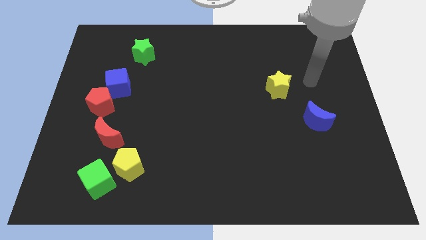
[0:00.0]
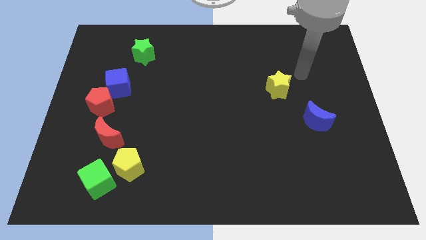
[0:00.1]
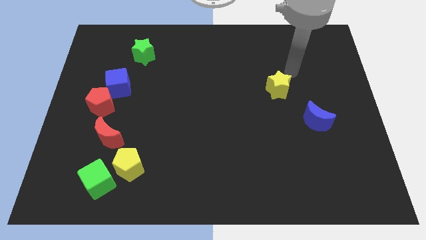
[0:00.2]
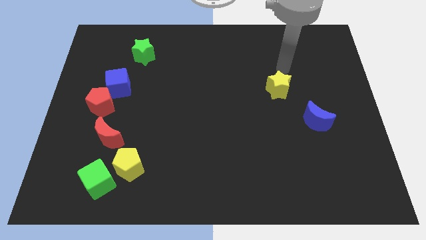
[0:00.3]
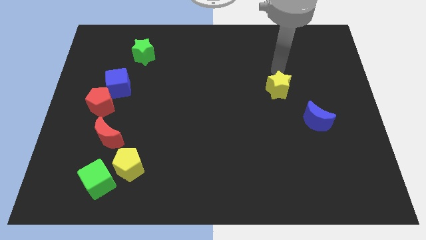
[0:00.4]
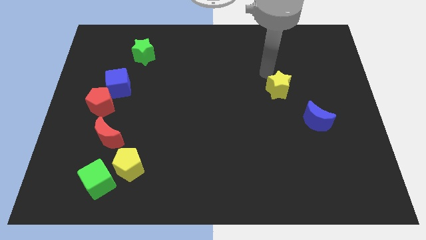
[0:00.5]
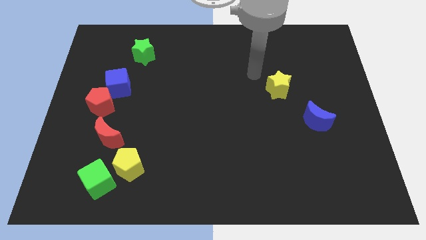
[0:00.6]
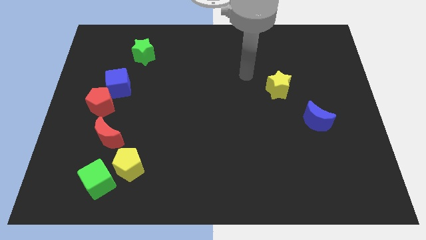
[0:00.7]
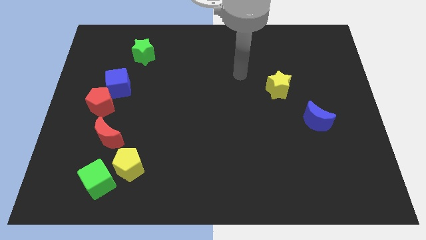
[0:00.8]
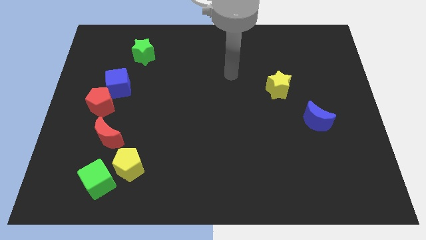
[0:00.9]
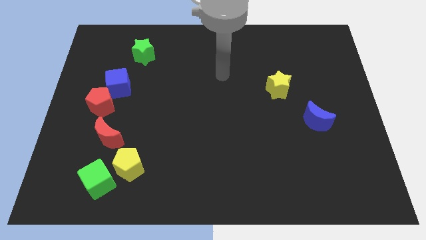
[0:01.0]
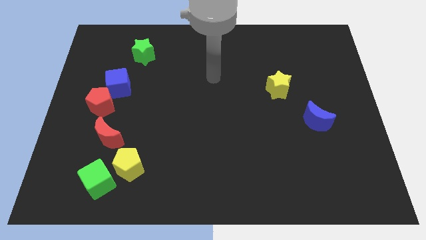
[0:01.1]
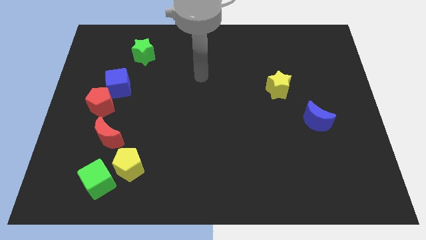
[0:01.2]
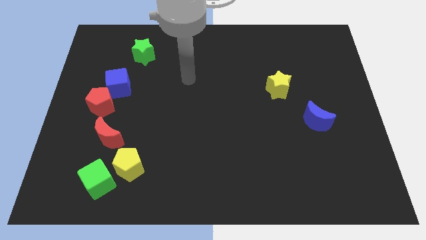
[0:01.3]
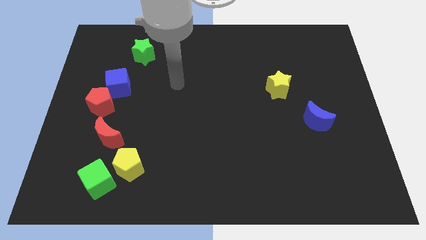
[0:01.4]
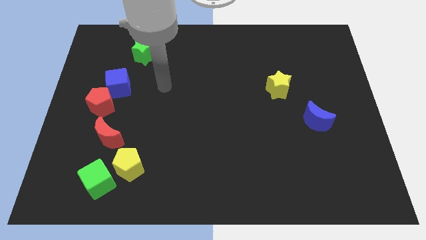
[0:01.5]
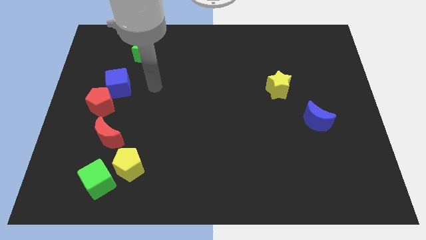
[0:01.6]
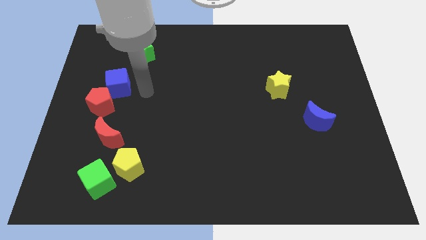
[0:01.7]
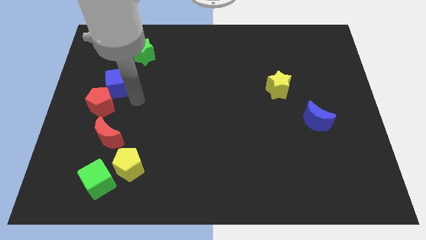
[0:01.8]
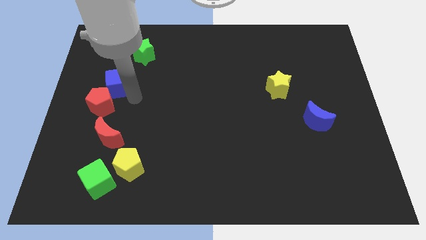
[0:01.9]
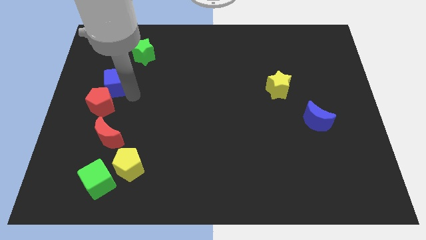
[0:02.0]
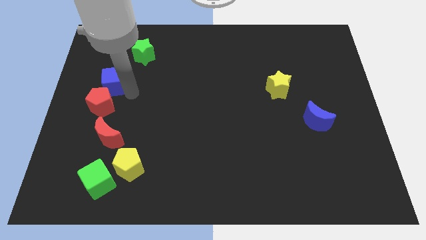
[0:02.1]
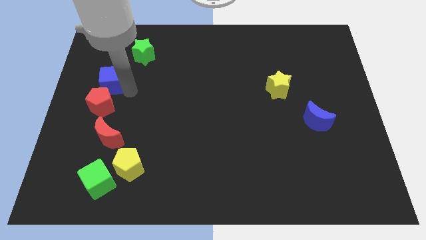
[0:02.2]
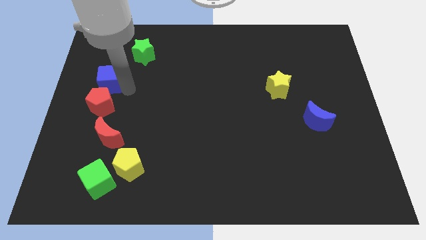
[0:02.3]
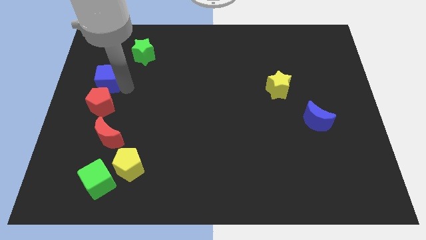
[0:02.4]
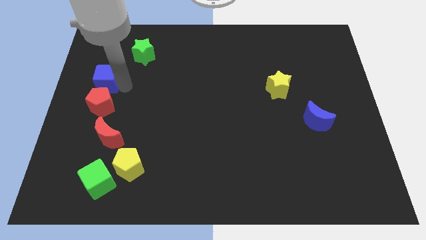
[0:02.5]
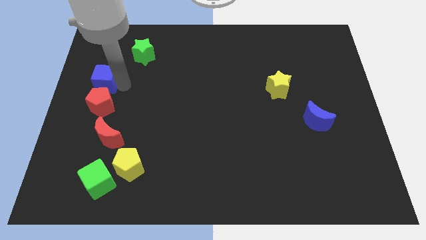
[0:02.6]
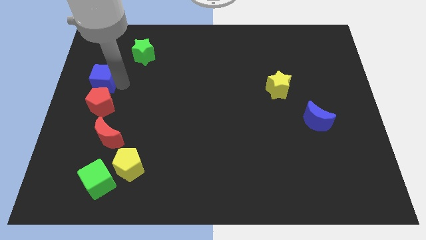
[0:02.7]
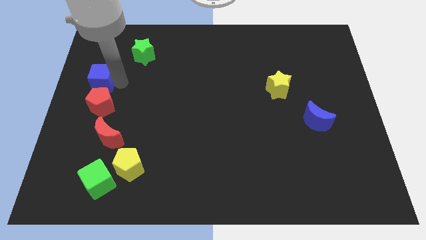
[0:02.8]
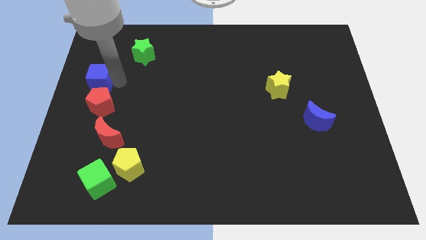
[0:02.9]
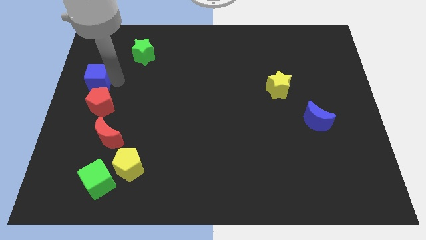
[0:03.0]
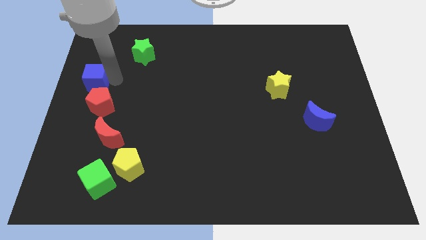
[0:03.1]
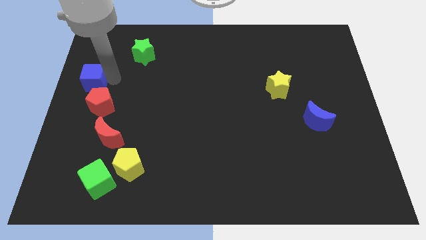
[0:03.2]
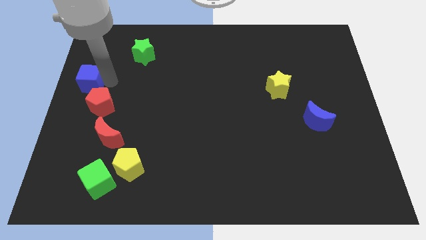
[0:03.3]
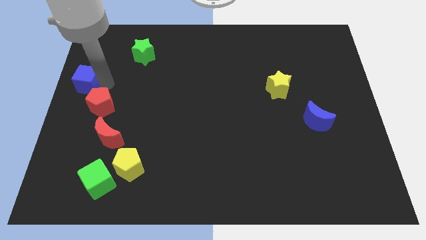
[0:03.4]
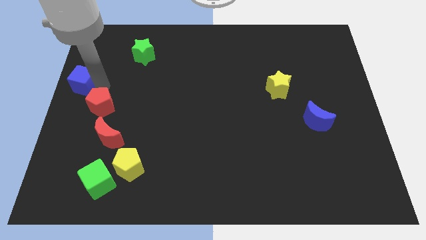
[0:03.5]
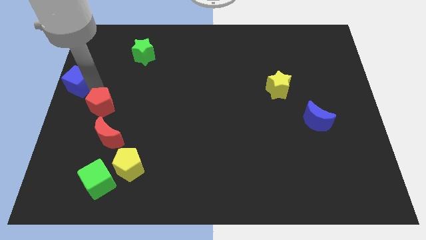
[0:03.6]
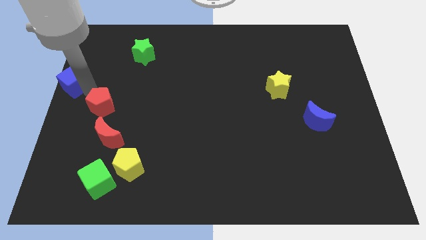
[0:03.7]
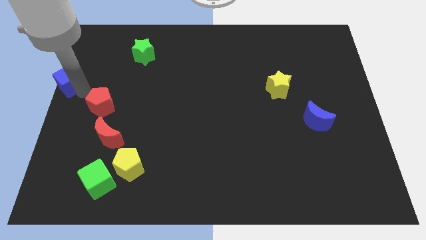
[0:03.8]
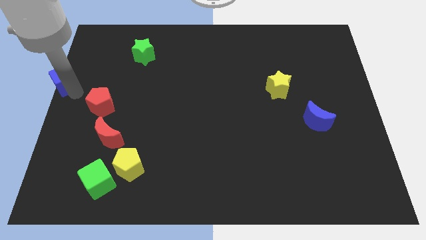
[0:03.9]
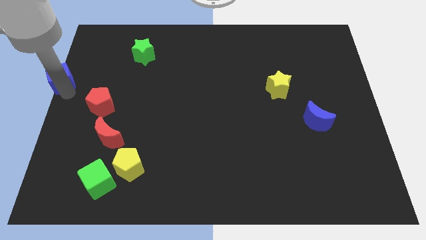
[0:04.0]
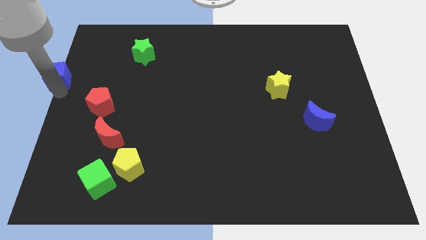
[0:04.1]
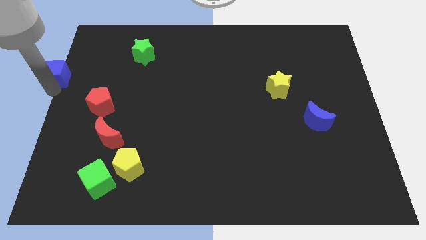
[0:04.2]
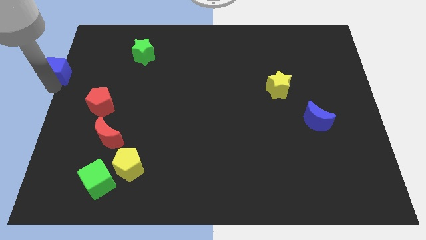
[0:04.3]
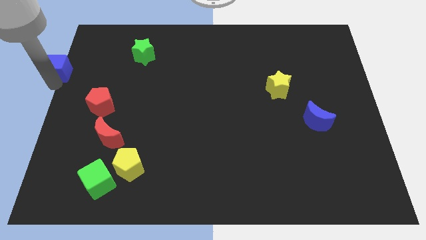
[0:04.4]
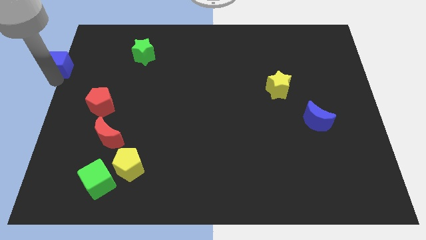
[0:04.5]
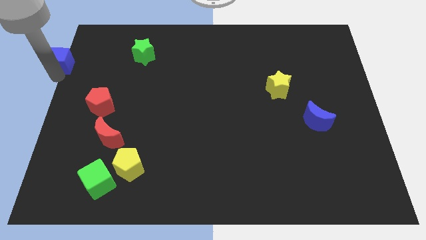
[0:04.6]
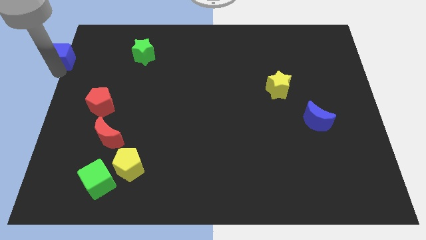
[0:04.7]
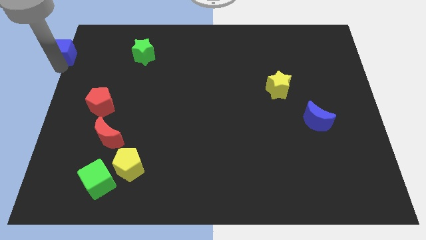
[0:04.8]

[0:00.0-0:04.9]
put the blue cube to the top left corner

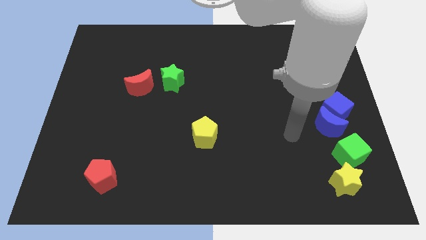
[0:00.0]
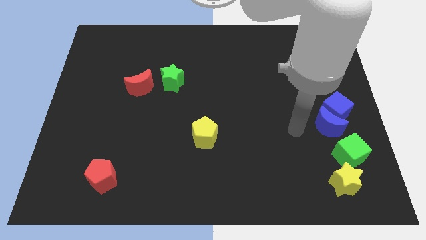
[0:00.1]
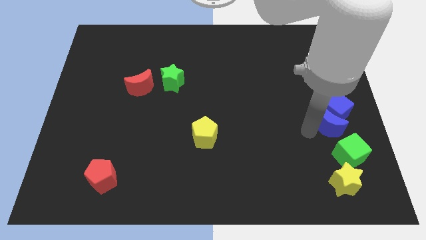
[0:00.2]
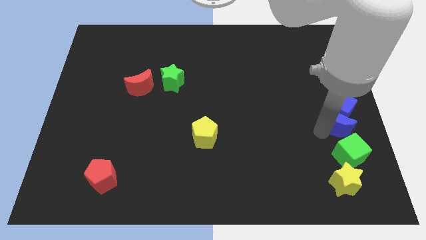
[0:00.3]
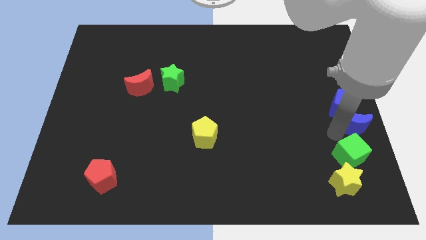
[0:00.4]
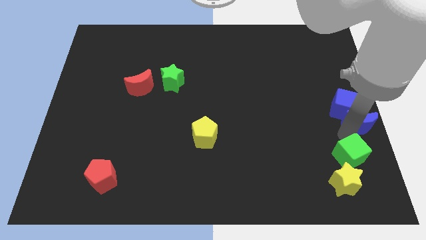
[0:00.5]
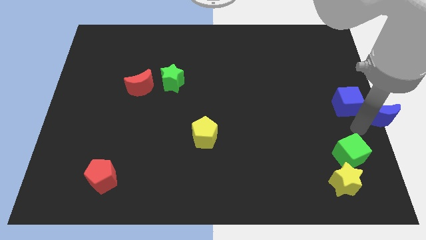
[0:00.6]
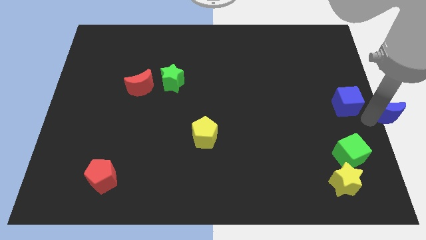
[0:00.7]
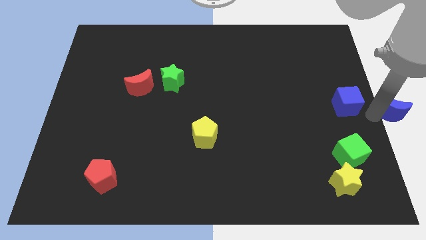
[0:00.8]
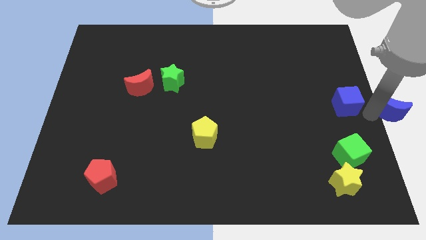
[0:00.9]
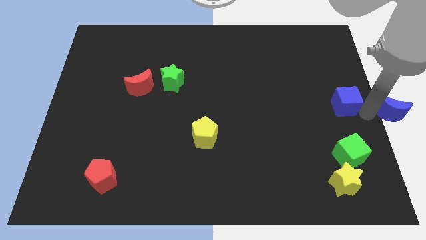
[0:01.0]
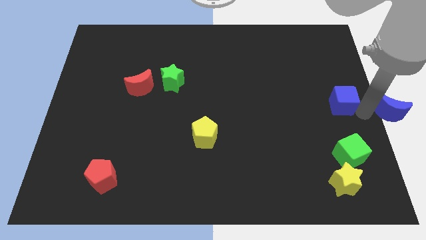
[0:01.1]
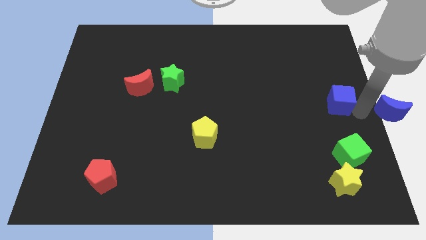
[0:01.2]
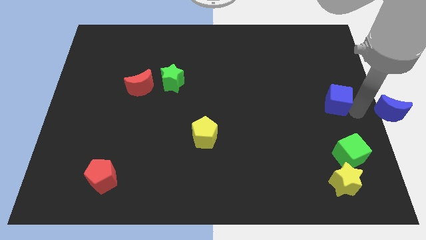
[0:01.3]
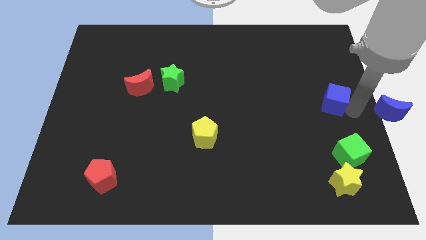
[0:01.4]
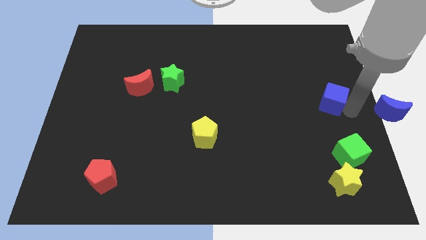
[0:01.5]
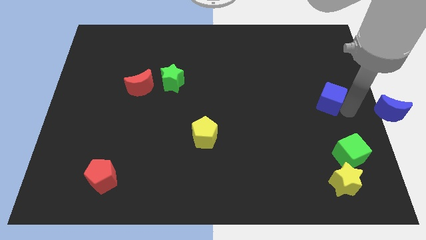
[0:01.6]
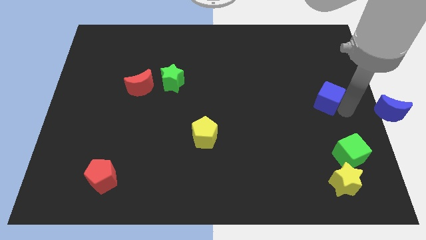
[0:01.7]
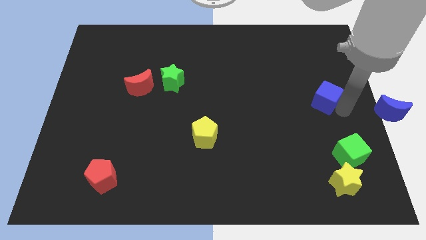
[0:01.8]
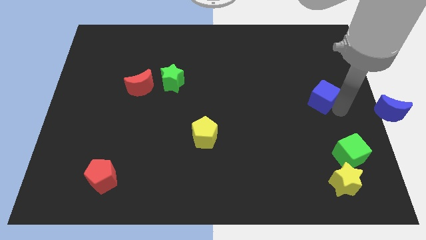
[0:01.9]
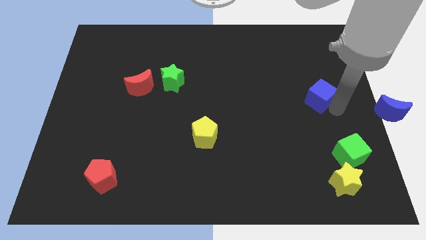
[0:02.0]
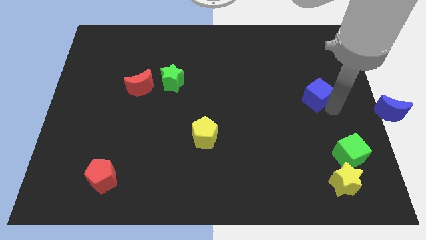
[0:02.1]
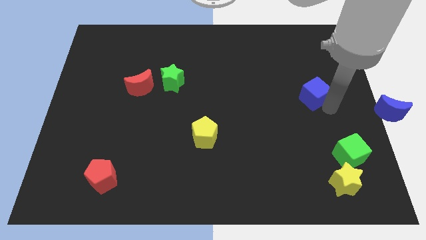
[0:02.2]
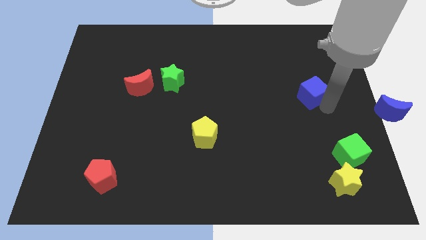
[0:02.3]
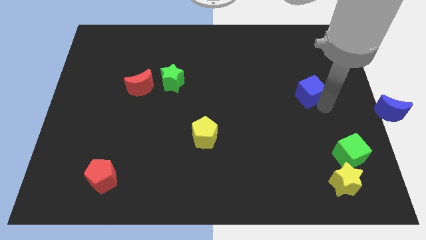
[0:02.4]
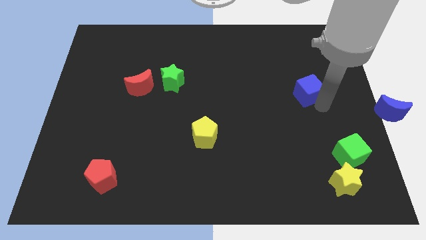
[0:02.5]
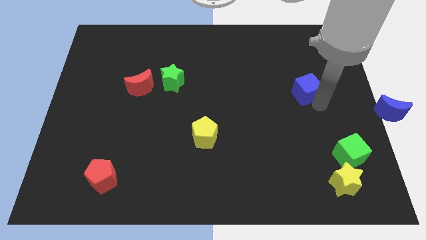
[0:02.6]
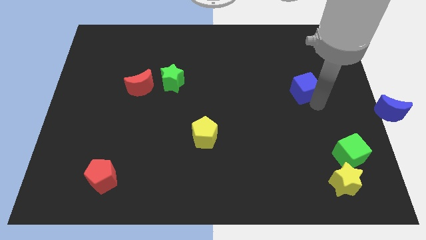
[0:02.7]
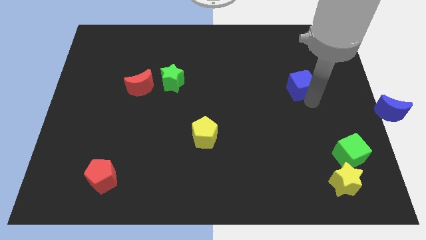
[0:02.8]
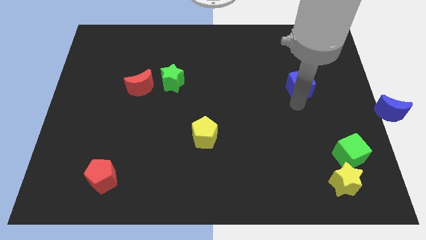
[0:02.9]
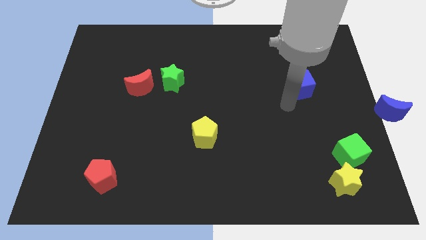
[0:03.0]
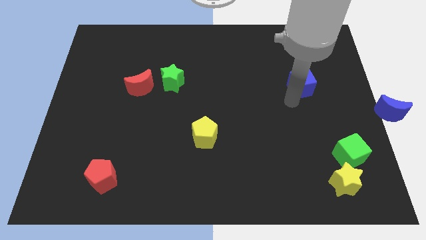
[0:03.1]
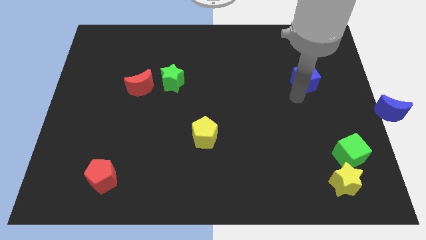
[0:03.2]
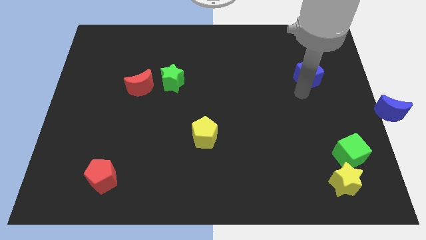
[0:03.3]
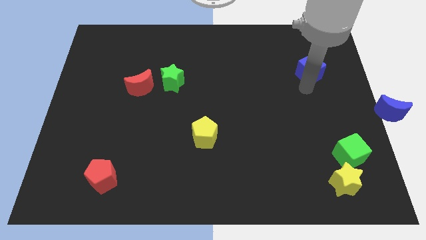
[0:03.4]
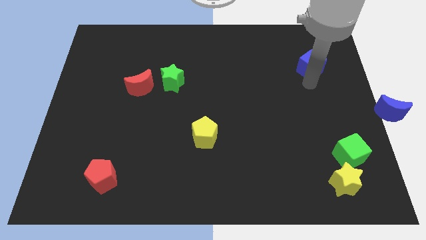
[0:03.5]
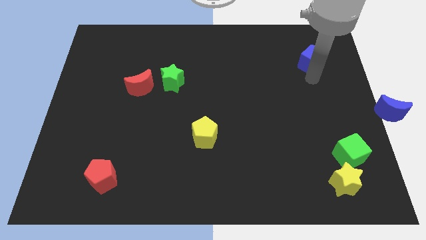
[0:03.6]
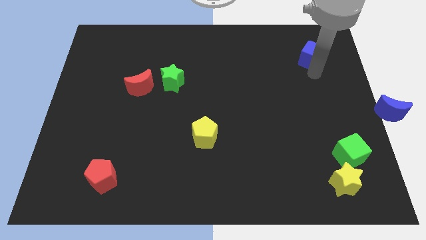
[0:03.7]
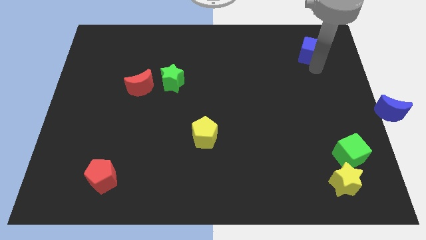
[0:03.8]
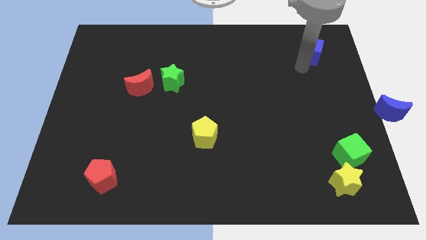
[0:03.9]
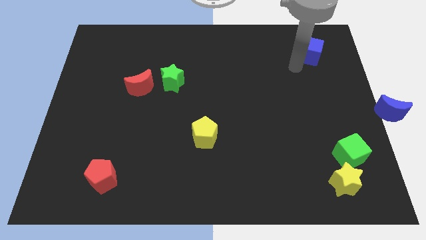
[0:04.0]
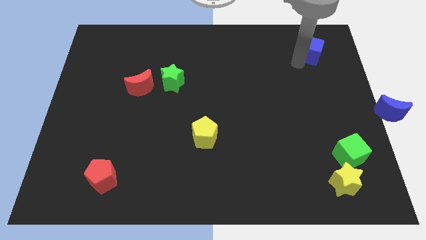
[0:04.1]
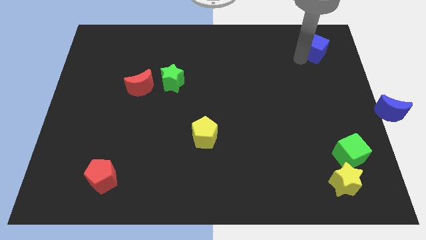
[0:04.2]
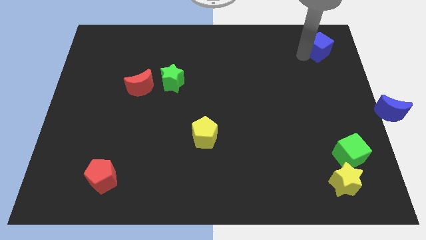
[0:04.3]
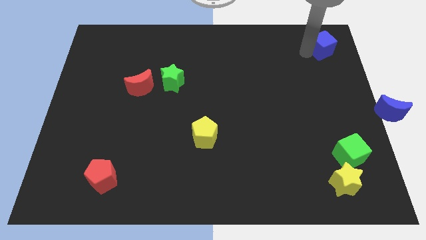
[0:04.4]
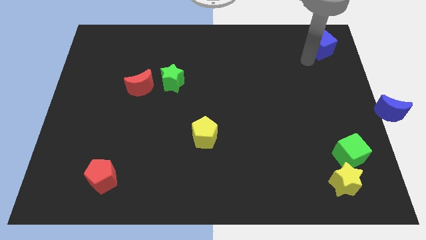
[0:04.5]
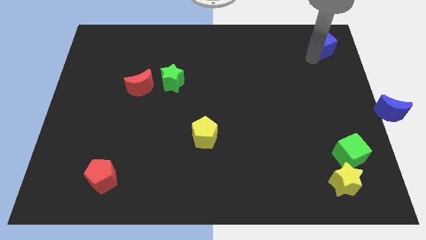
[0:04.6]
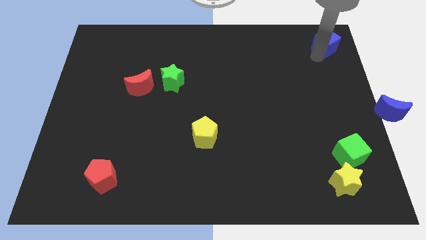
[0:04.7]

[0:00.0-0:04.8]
slide the blue cube to the top right corner
